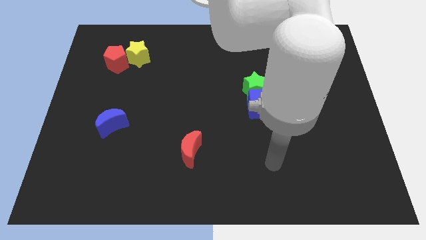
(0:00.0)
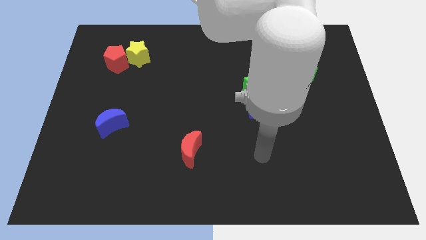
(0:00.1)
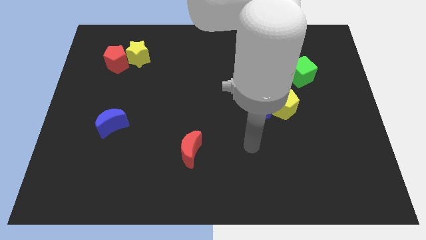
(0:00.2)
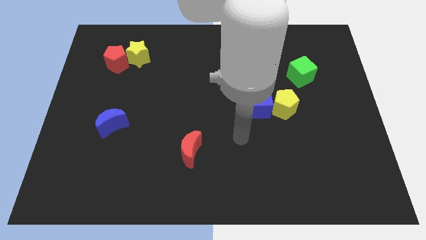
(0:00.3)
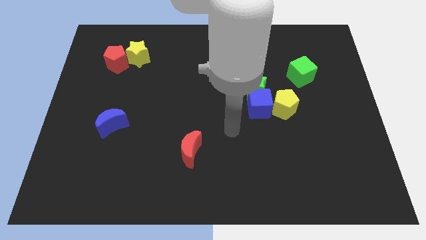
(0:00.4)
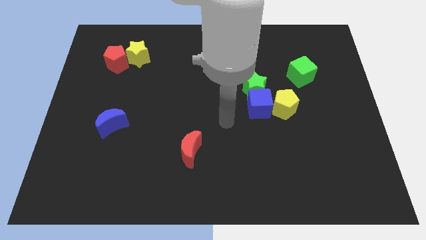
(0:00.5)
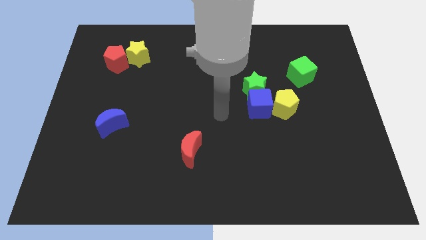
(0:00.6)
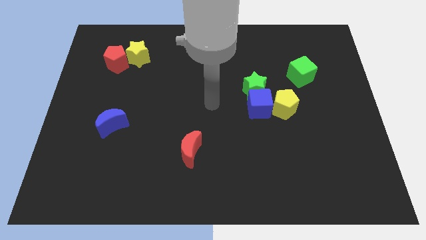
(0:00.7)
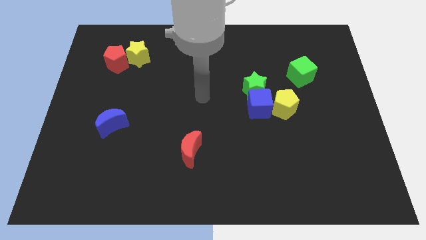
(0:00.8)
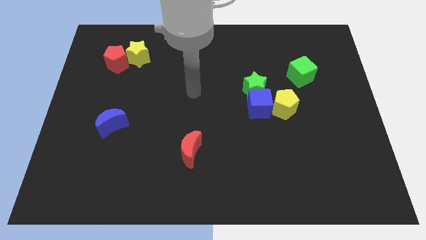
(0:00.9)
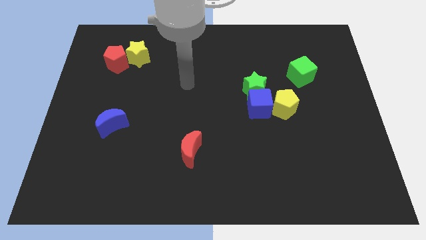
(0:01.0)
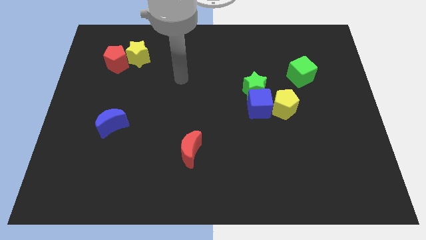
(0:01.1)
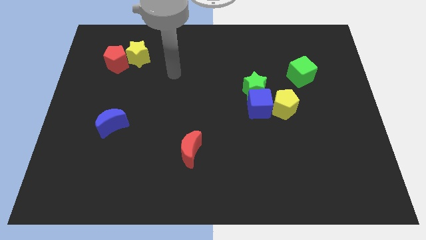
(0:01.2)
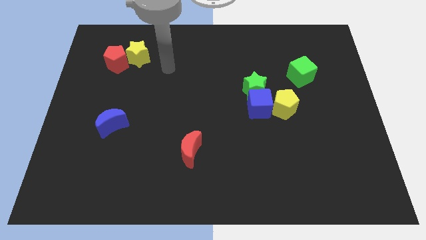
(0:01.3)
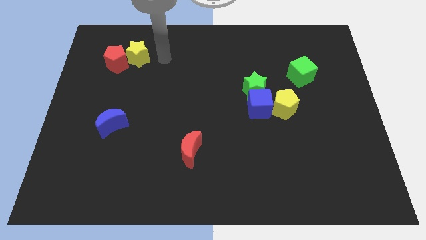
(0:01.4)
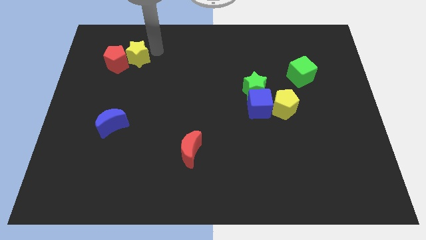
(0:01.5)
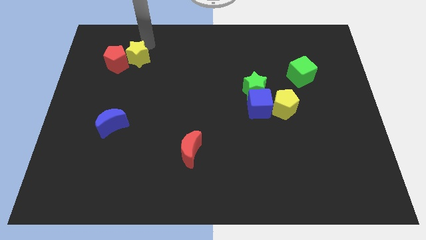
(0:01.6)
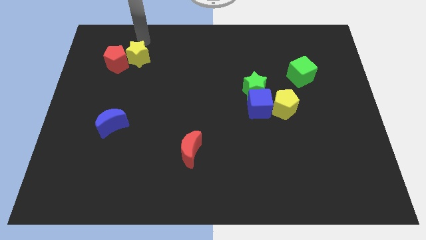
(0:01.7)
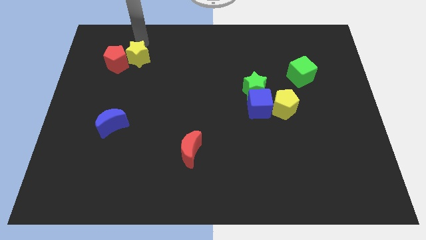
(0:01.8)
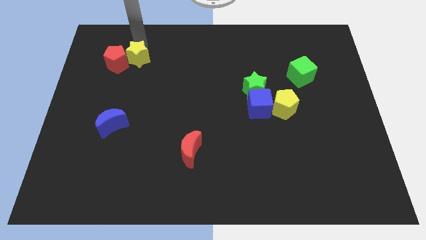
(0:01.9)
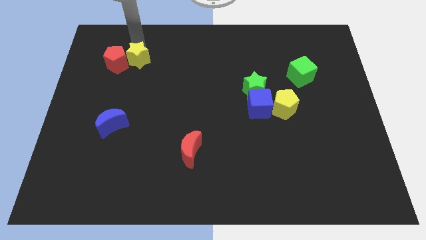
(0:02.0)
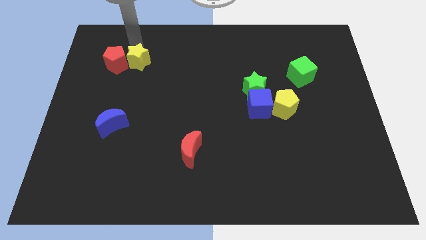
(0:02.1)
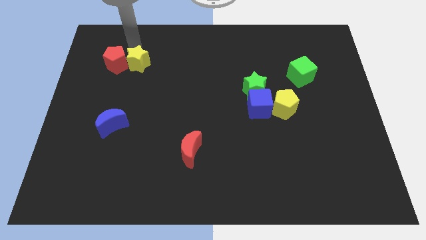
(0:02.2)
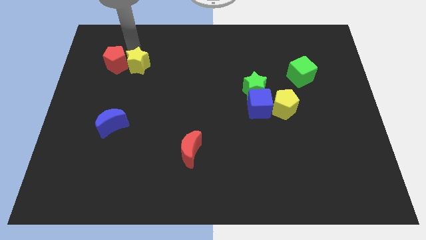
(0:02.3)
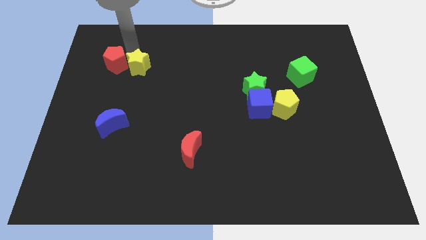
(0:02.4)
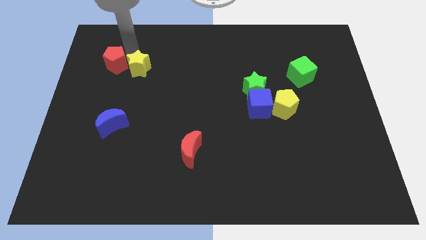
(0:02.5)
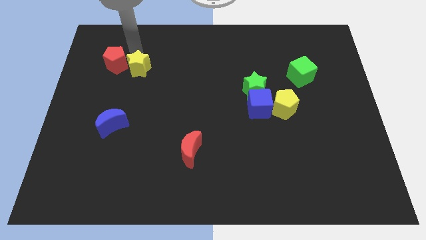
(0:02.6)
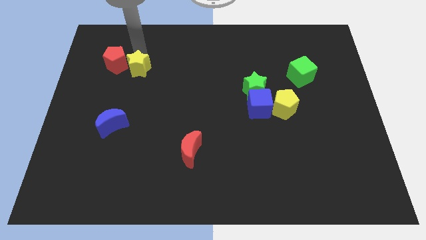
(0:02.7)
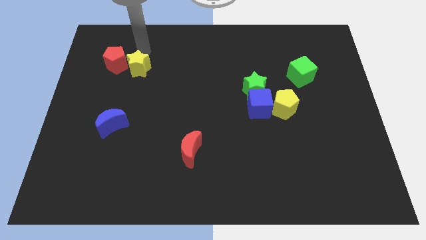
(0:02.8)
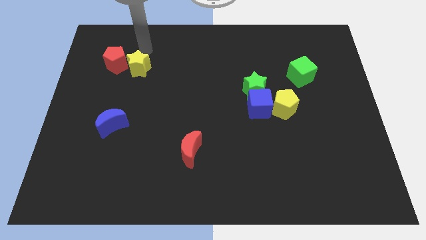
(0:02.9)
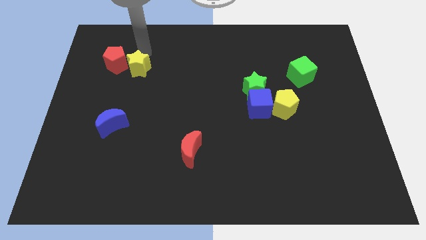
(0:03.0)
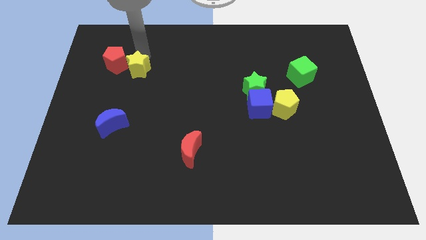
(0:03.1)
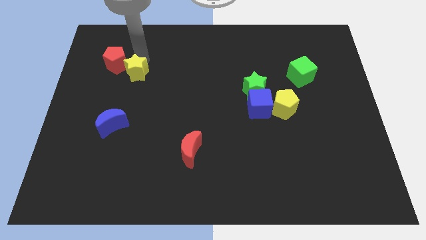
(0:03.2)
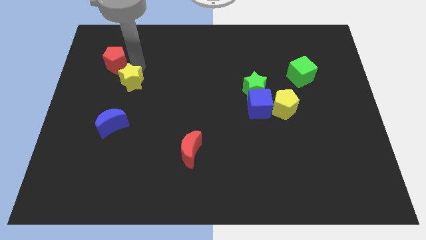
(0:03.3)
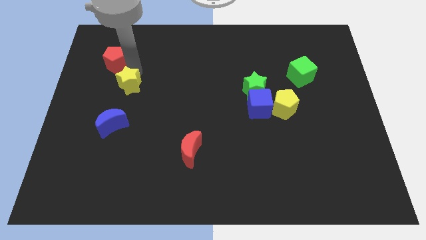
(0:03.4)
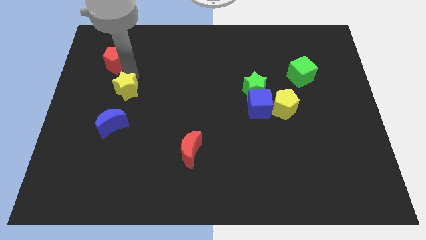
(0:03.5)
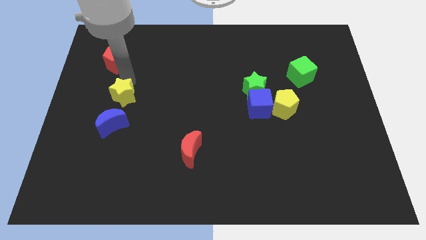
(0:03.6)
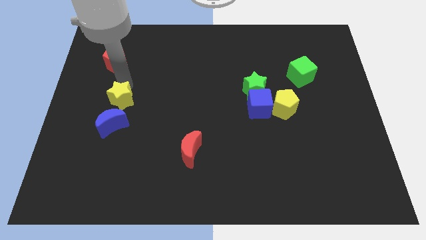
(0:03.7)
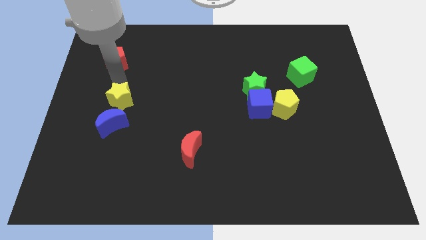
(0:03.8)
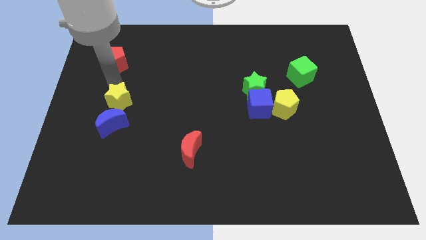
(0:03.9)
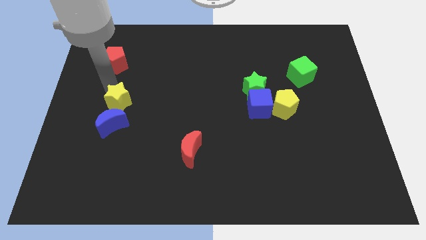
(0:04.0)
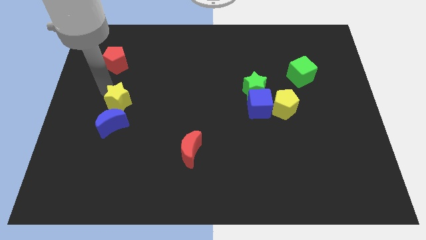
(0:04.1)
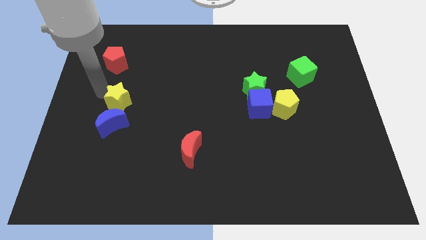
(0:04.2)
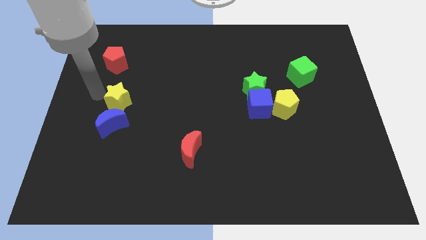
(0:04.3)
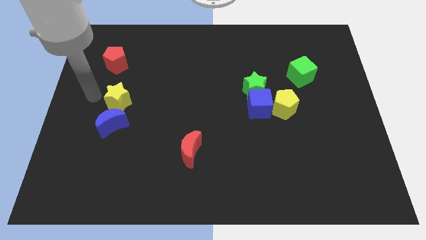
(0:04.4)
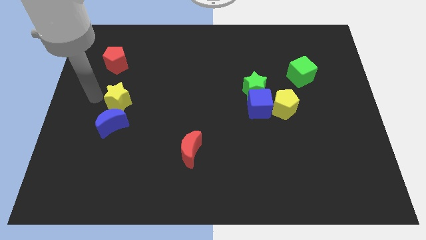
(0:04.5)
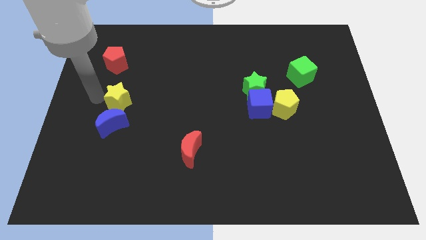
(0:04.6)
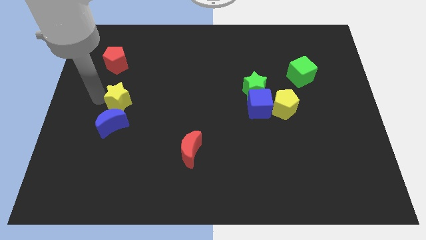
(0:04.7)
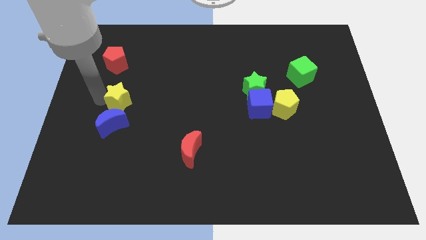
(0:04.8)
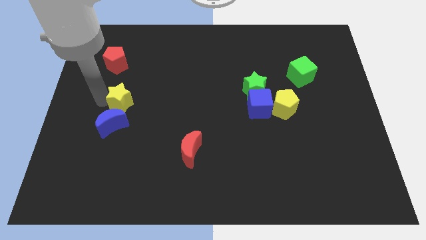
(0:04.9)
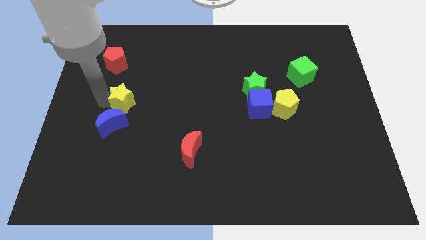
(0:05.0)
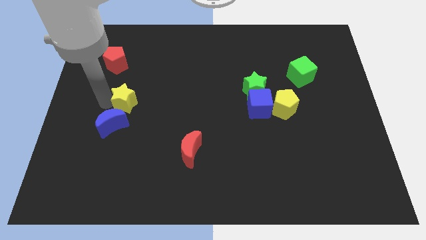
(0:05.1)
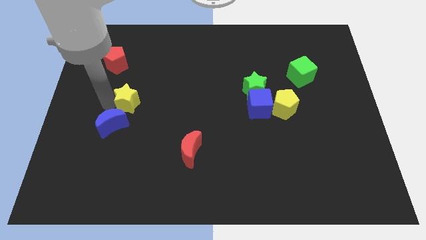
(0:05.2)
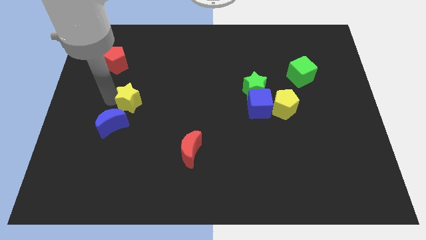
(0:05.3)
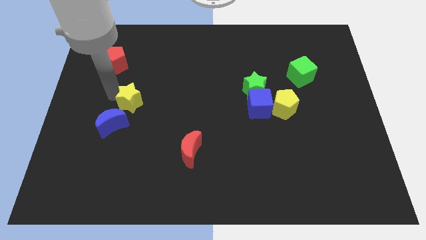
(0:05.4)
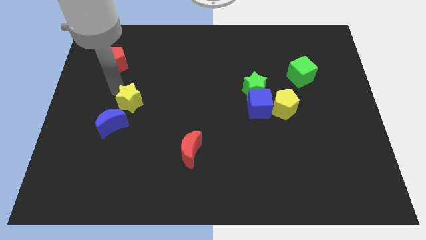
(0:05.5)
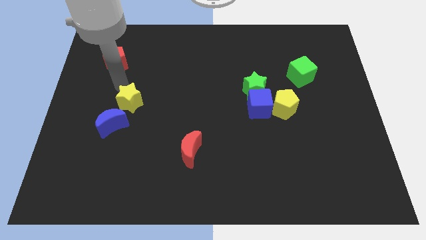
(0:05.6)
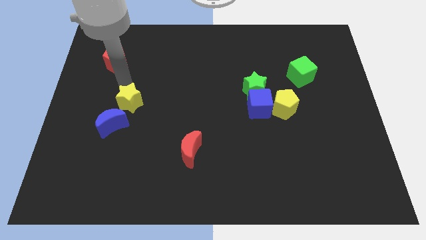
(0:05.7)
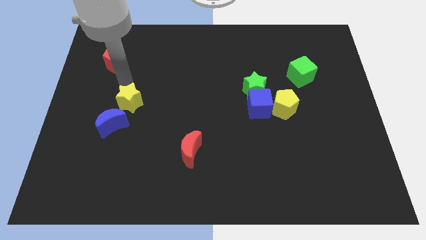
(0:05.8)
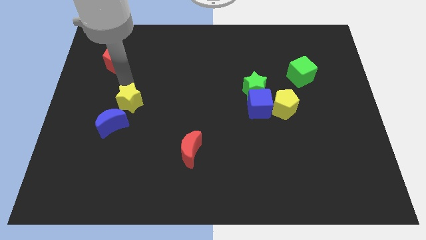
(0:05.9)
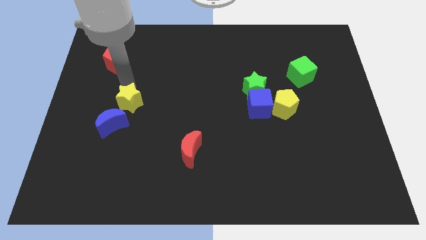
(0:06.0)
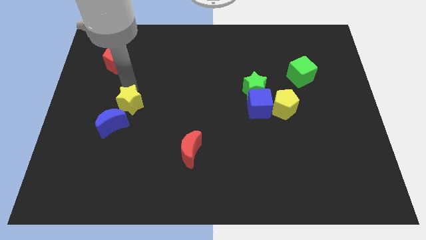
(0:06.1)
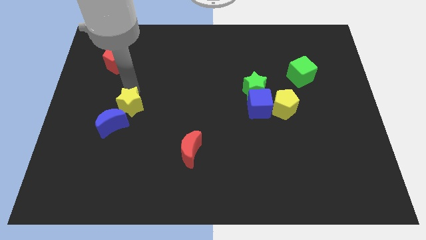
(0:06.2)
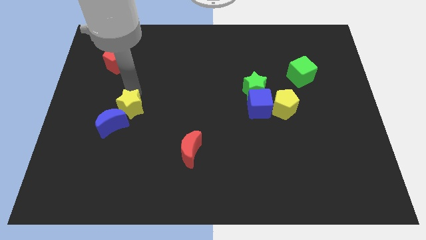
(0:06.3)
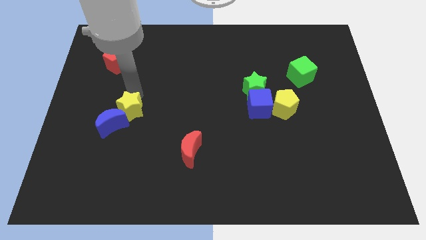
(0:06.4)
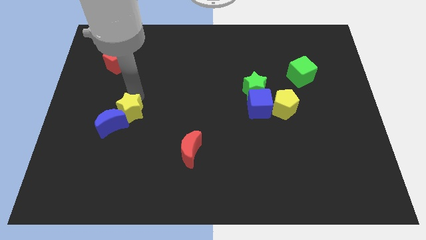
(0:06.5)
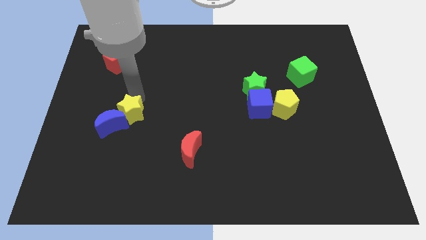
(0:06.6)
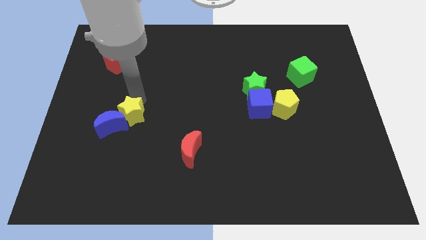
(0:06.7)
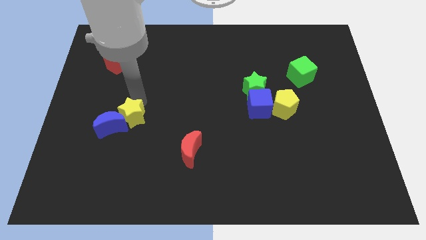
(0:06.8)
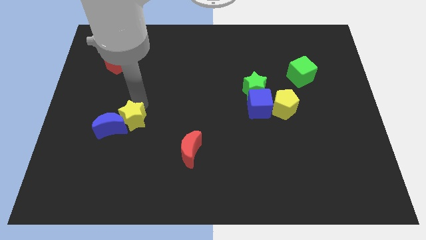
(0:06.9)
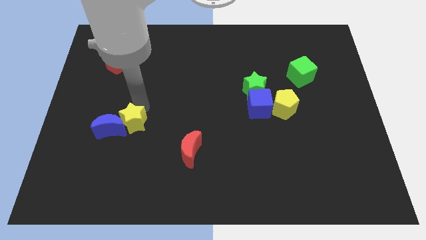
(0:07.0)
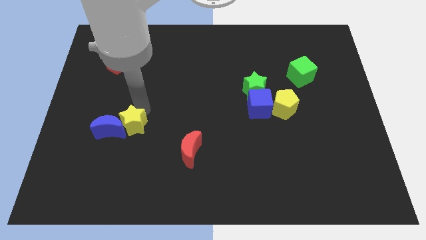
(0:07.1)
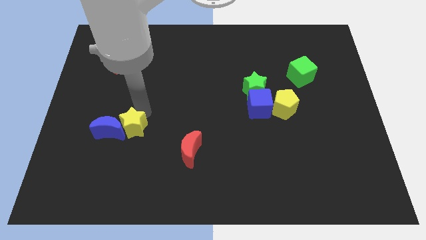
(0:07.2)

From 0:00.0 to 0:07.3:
move the yellow star to the bottom right of the blue moon
